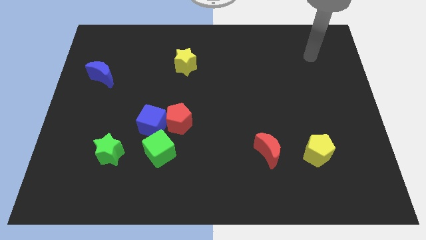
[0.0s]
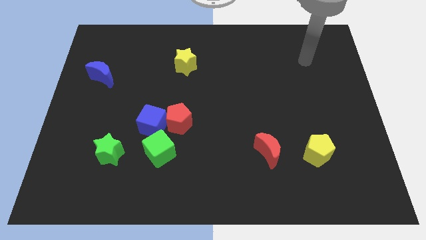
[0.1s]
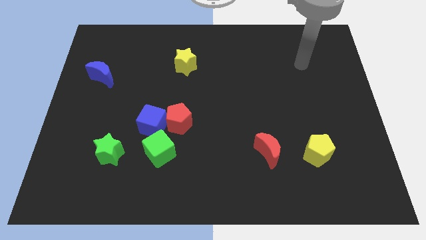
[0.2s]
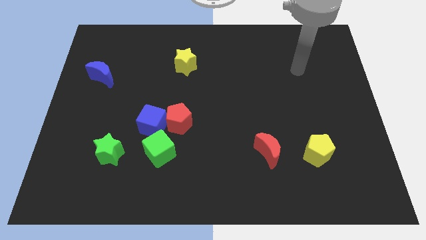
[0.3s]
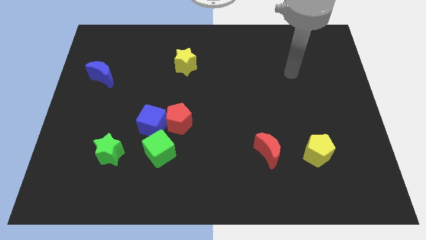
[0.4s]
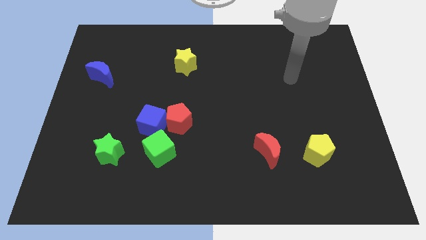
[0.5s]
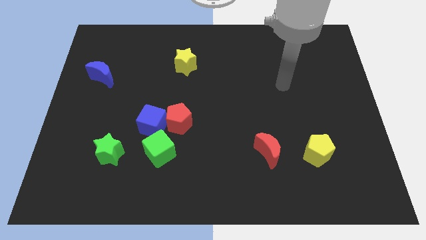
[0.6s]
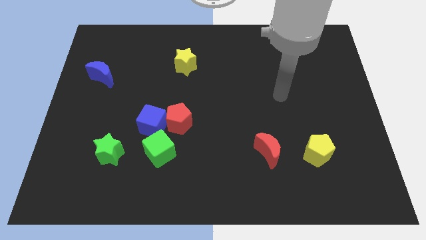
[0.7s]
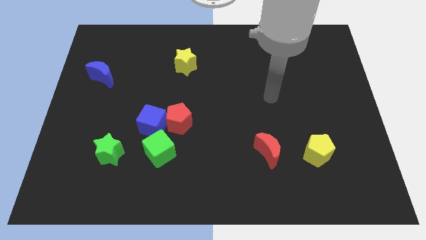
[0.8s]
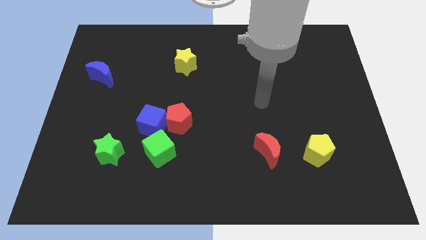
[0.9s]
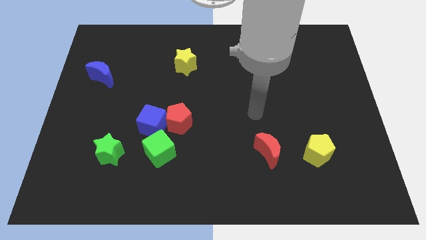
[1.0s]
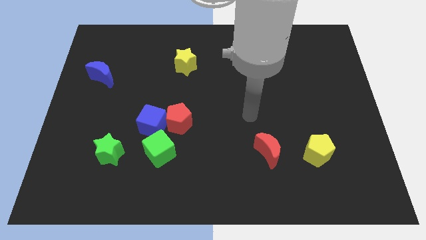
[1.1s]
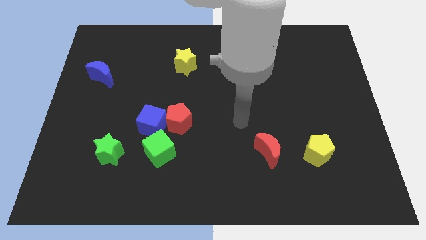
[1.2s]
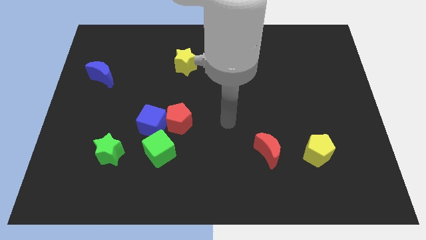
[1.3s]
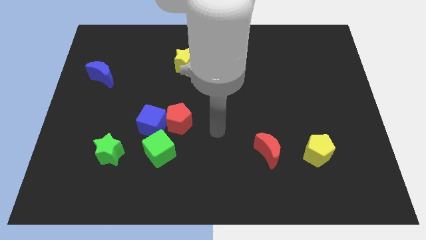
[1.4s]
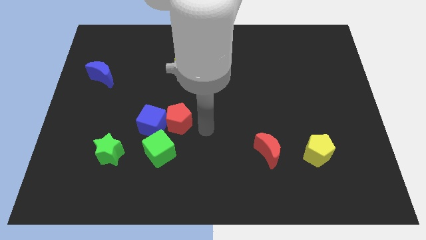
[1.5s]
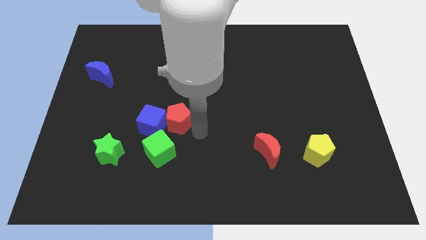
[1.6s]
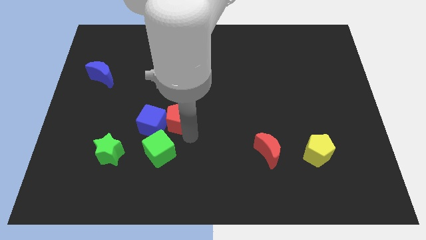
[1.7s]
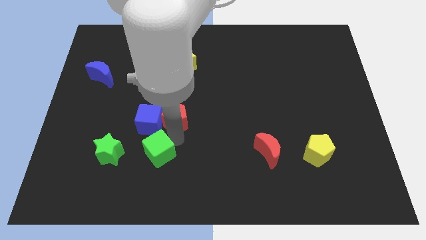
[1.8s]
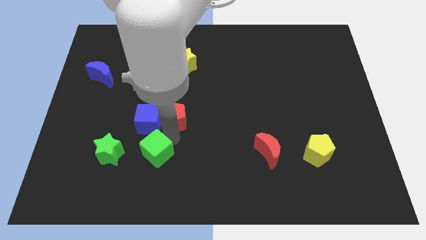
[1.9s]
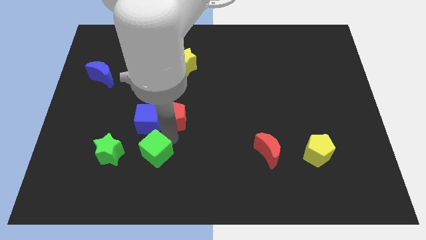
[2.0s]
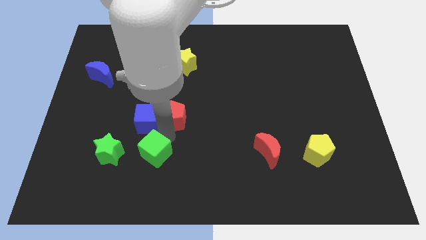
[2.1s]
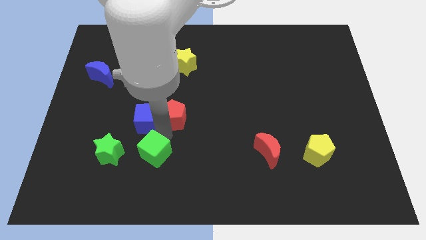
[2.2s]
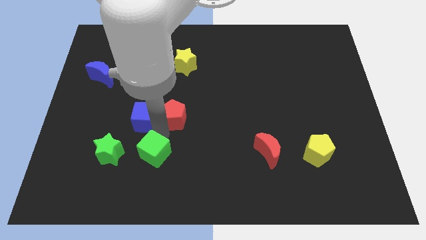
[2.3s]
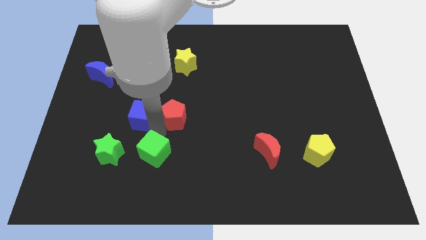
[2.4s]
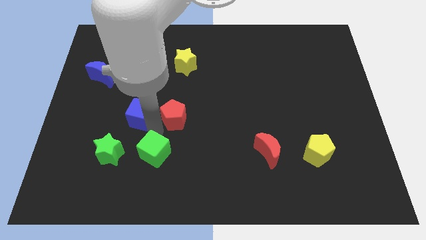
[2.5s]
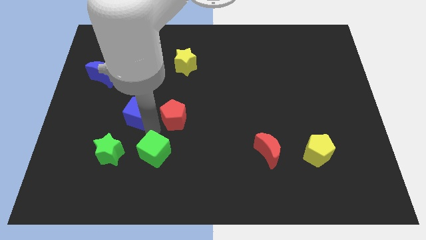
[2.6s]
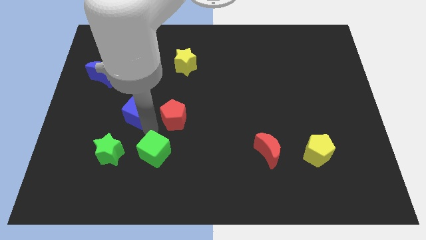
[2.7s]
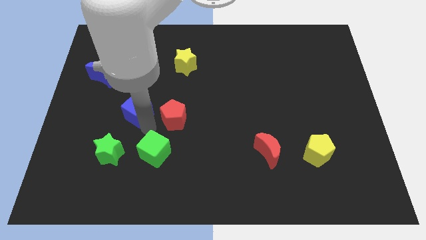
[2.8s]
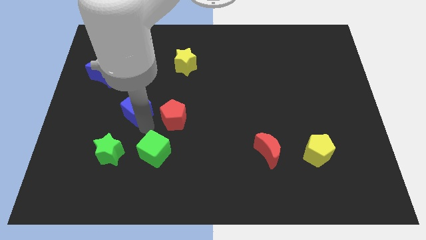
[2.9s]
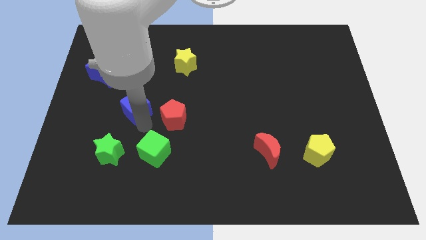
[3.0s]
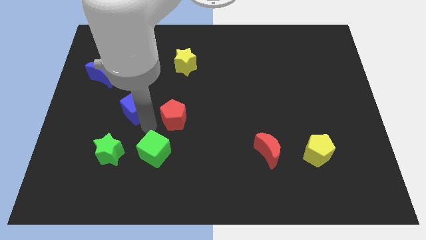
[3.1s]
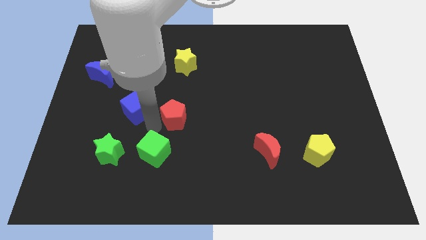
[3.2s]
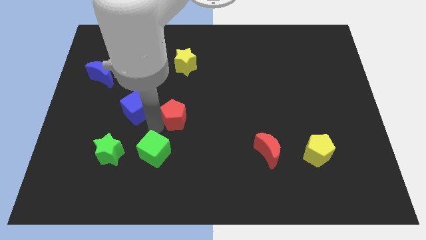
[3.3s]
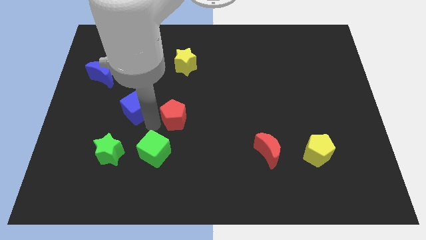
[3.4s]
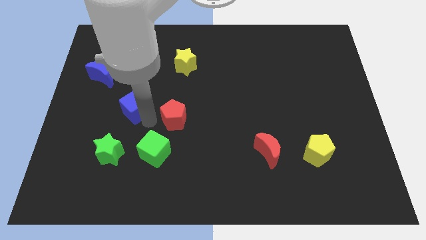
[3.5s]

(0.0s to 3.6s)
pull the blue cube apart from the red pentagon and green cube

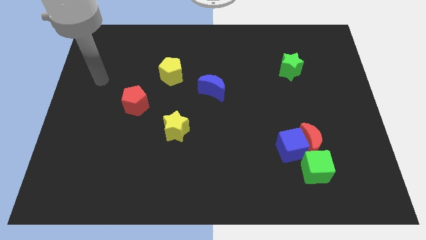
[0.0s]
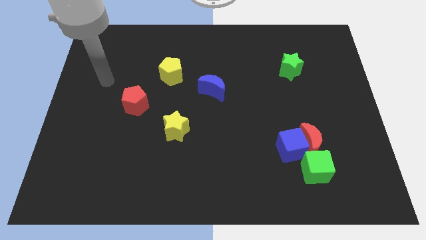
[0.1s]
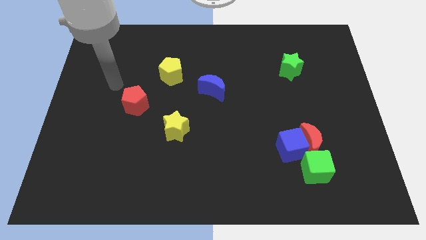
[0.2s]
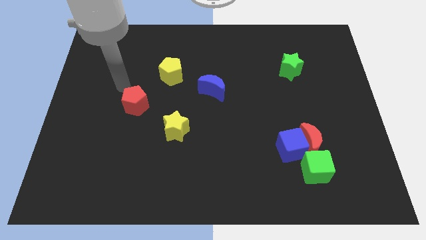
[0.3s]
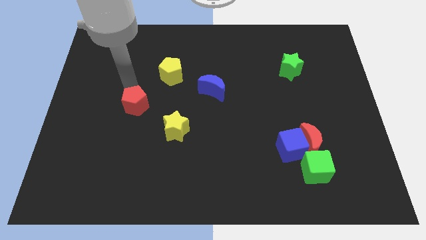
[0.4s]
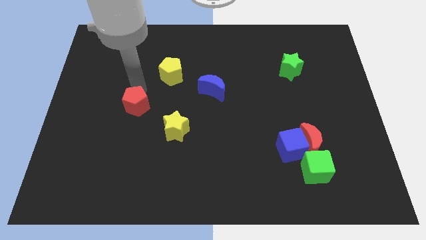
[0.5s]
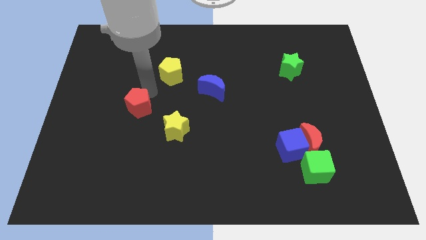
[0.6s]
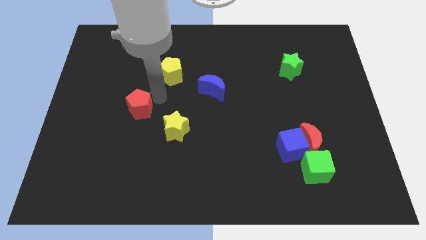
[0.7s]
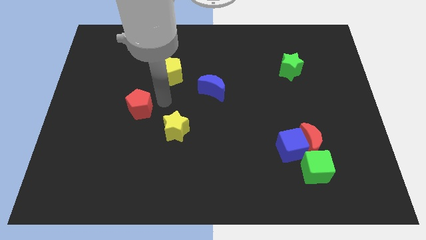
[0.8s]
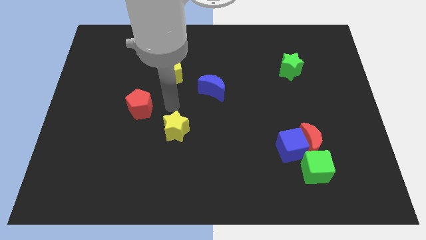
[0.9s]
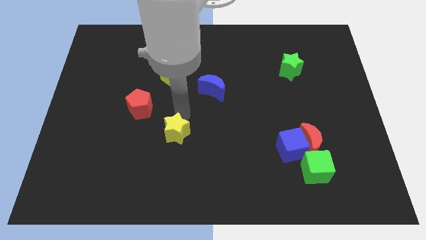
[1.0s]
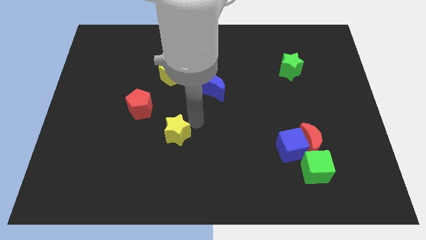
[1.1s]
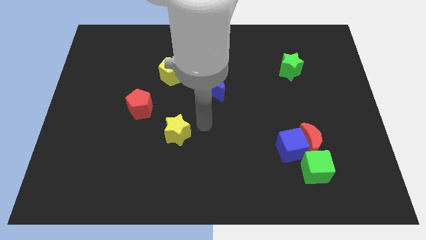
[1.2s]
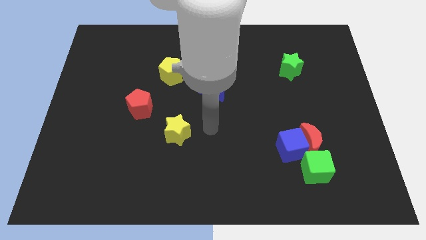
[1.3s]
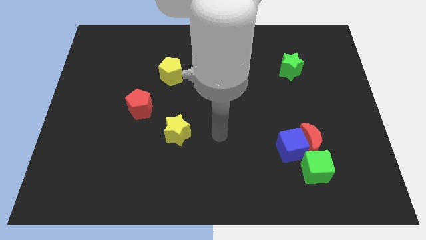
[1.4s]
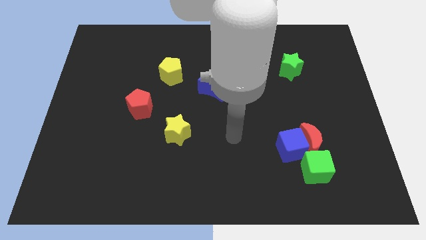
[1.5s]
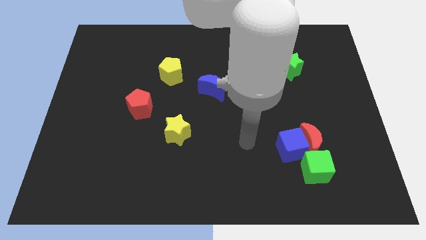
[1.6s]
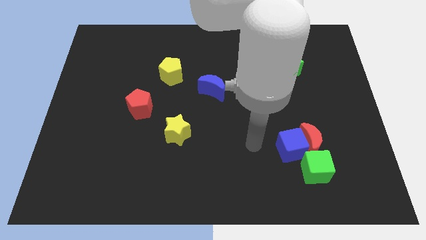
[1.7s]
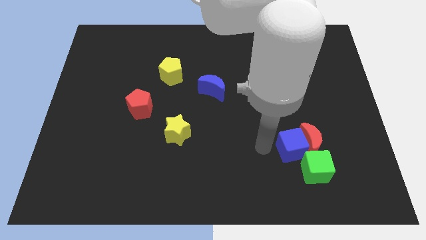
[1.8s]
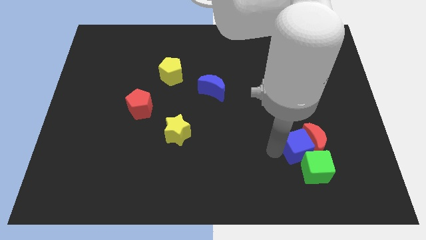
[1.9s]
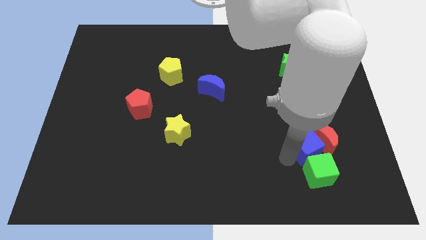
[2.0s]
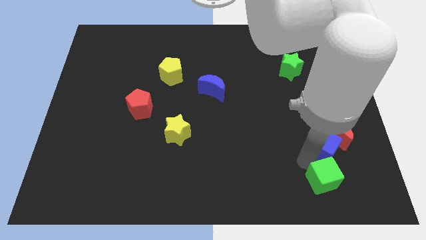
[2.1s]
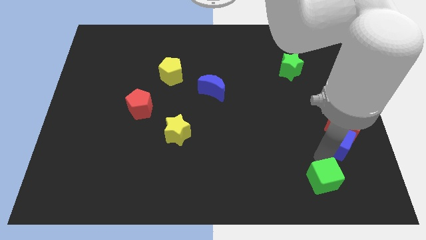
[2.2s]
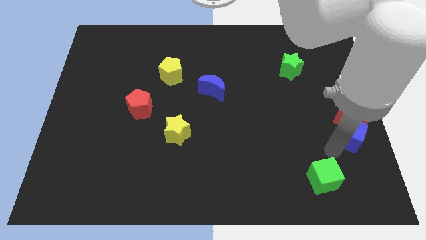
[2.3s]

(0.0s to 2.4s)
pull the red moon apart from the blue cube and green cube

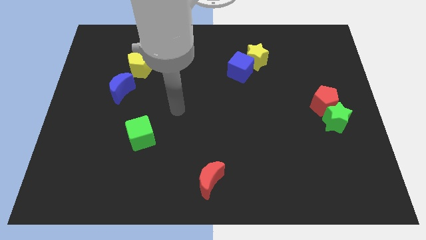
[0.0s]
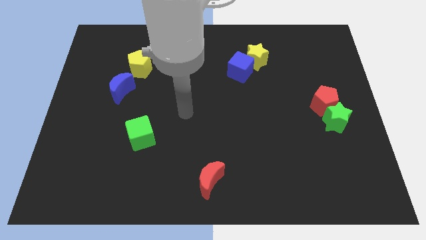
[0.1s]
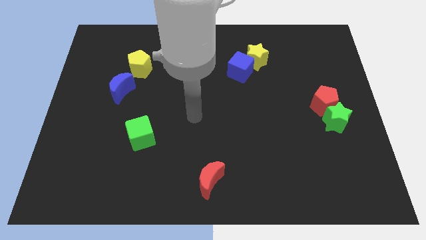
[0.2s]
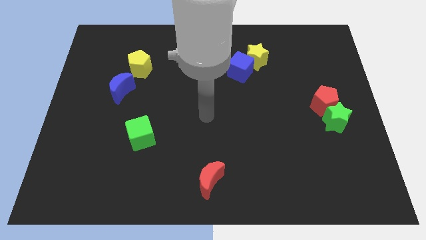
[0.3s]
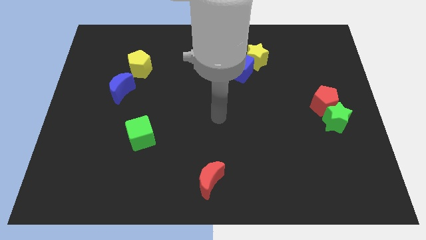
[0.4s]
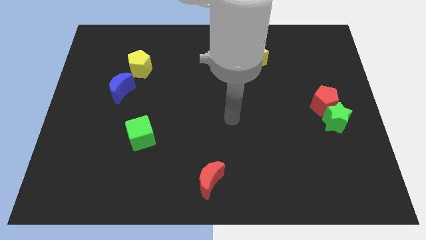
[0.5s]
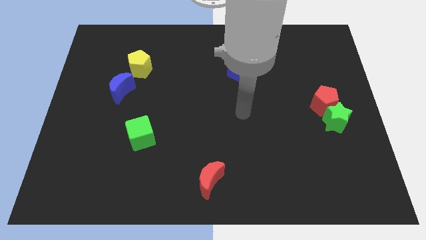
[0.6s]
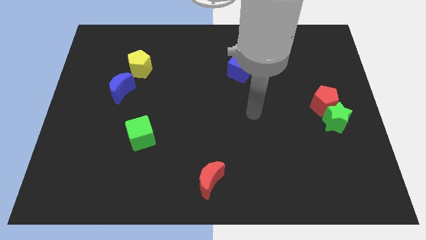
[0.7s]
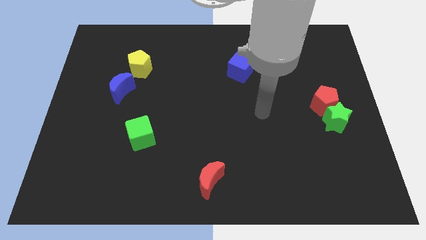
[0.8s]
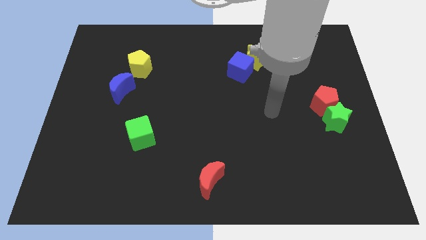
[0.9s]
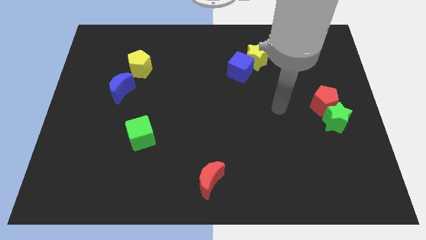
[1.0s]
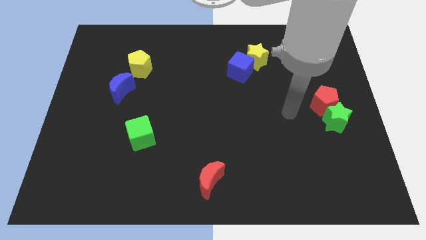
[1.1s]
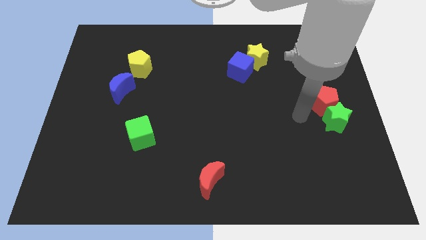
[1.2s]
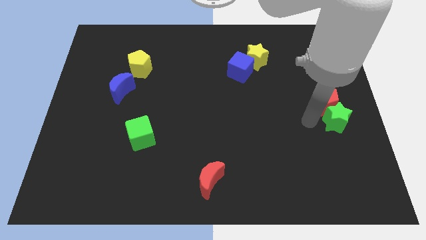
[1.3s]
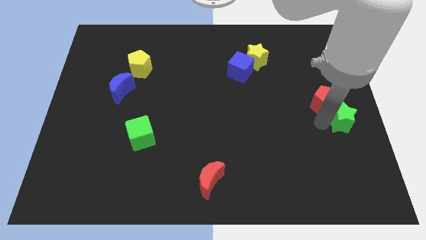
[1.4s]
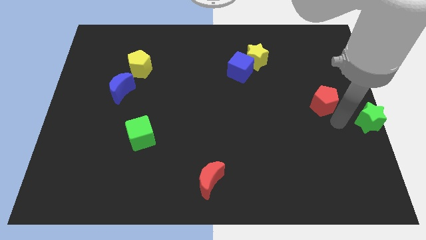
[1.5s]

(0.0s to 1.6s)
separate the red pentagon from the green star

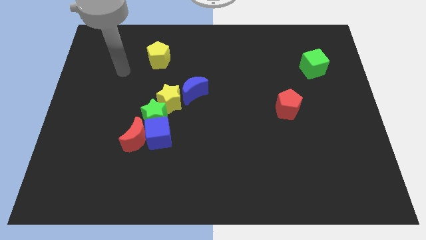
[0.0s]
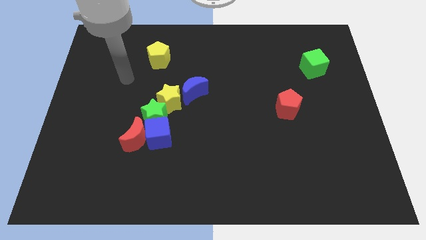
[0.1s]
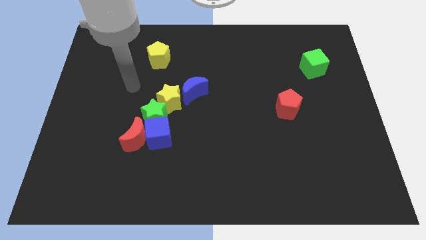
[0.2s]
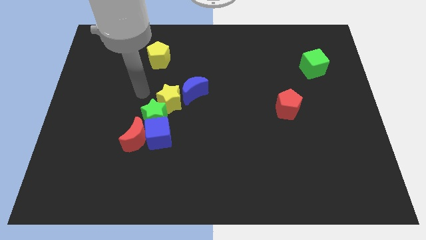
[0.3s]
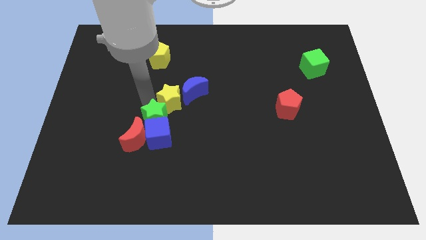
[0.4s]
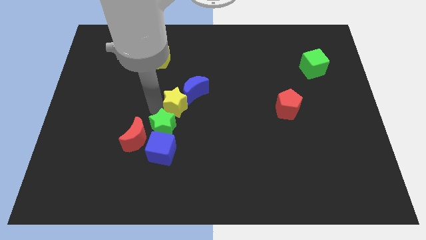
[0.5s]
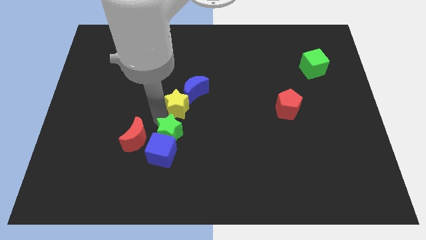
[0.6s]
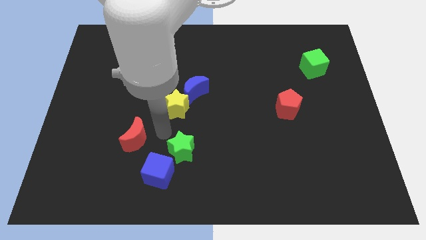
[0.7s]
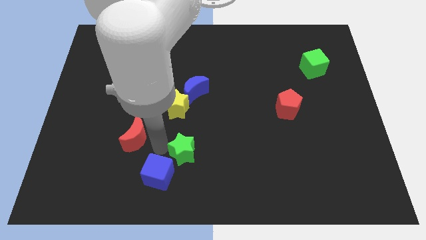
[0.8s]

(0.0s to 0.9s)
separate the red moon from the blue cube and green star

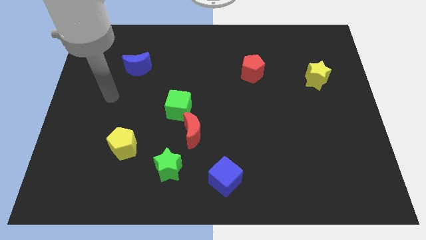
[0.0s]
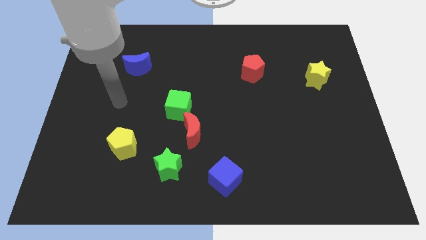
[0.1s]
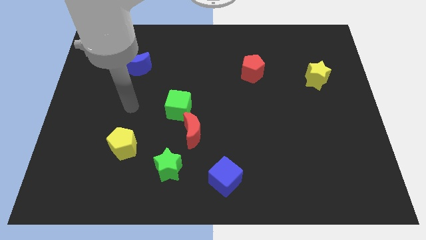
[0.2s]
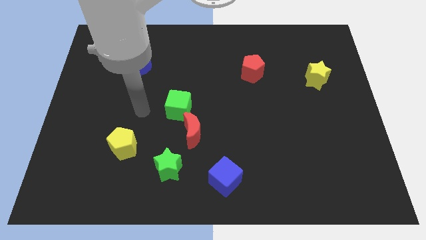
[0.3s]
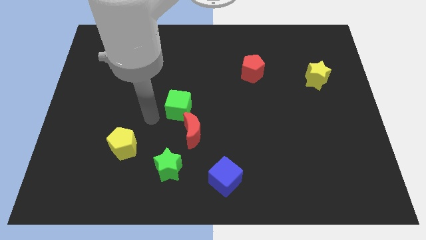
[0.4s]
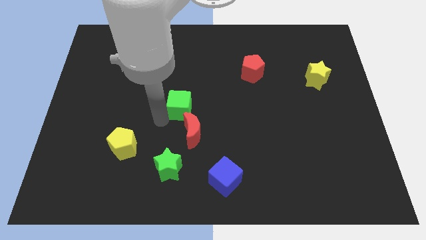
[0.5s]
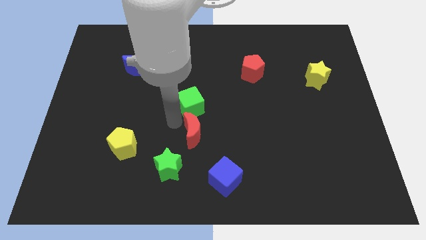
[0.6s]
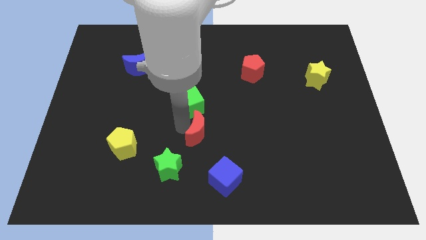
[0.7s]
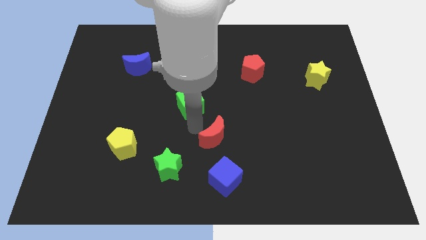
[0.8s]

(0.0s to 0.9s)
separate the green cube from the red moon
